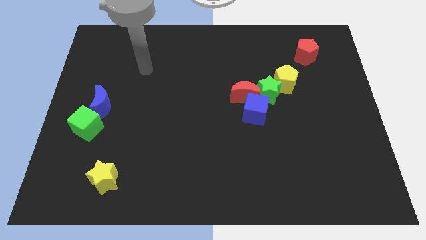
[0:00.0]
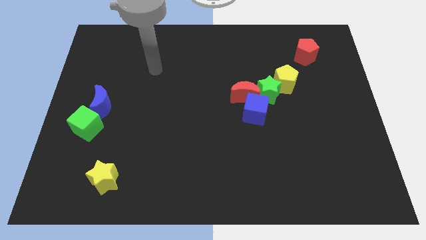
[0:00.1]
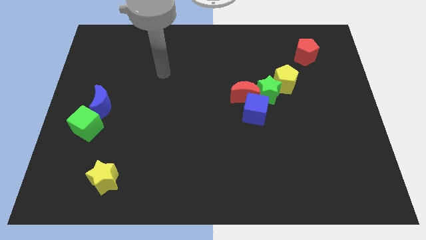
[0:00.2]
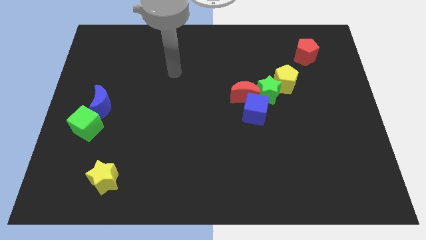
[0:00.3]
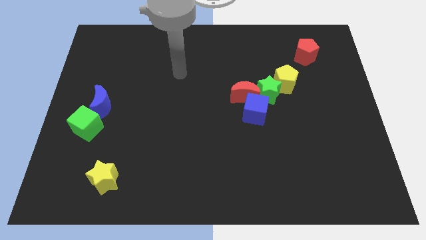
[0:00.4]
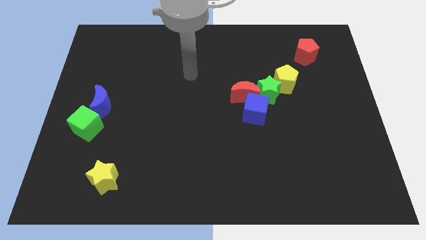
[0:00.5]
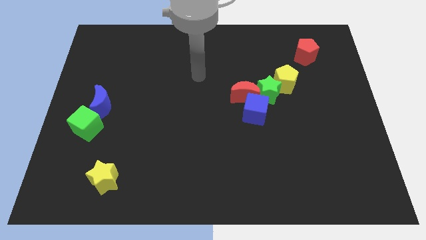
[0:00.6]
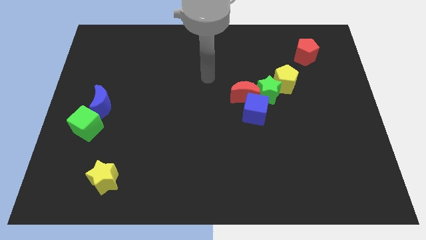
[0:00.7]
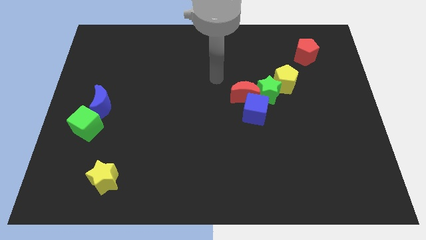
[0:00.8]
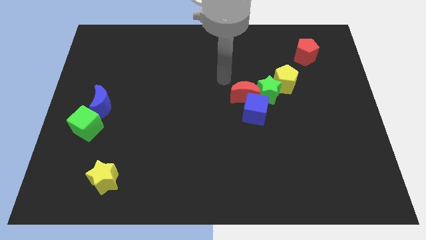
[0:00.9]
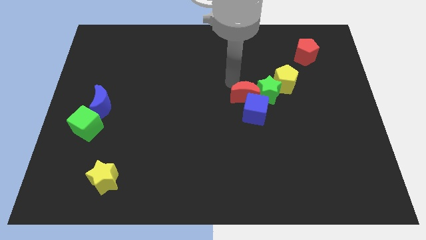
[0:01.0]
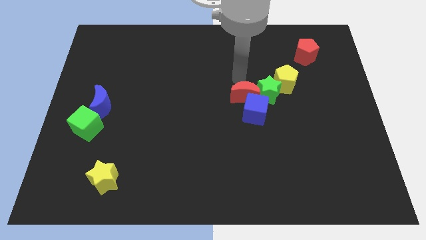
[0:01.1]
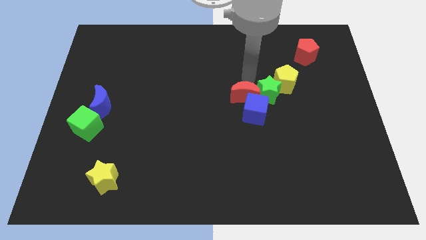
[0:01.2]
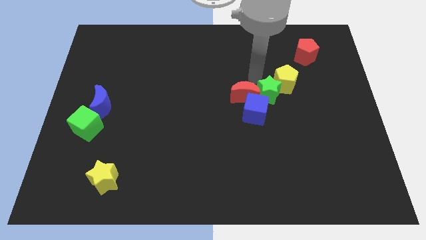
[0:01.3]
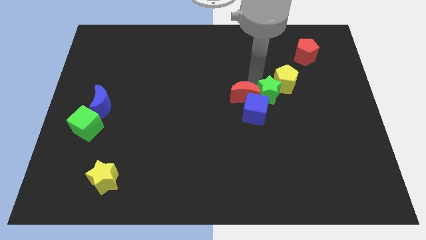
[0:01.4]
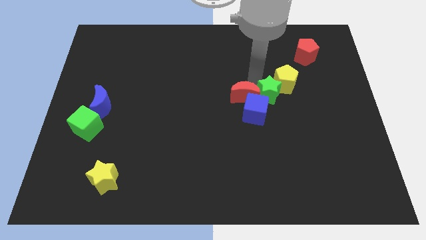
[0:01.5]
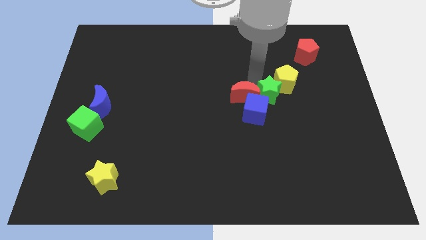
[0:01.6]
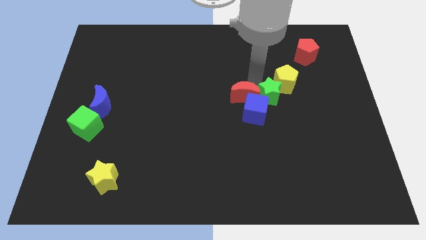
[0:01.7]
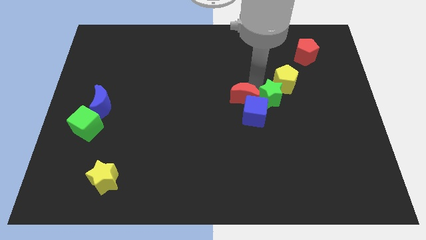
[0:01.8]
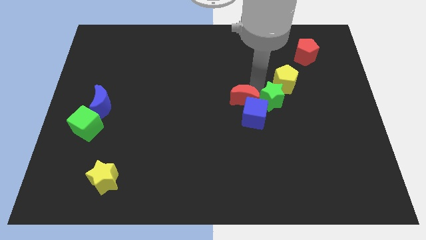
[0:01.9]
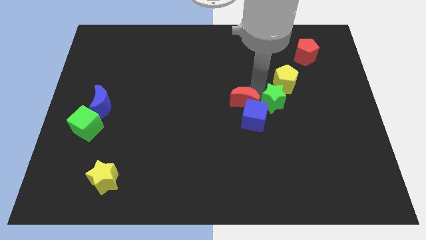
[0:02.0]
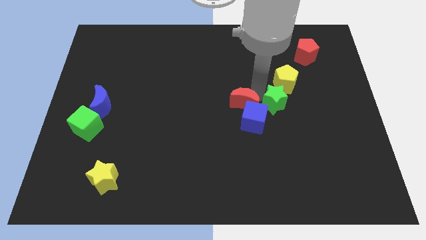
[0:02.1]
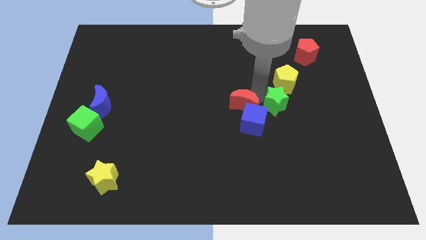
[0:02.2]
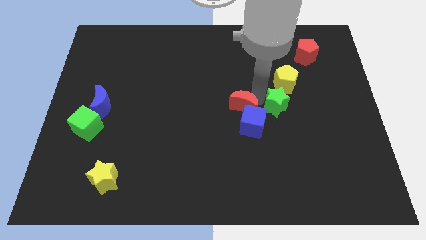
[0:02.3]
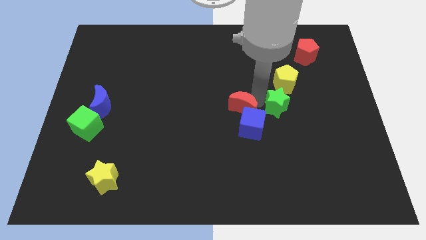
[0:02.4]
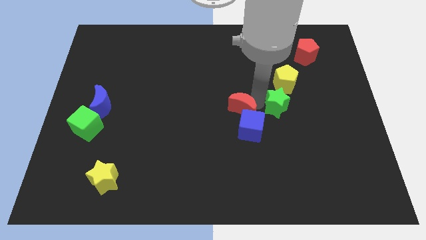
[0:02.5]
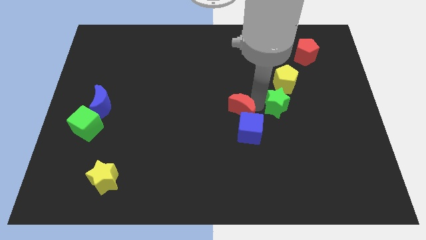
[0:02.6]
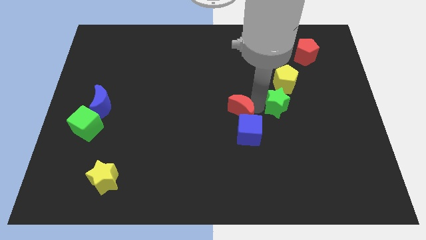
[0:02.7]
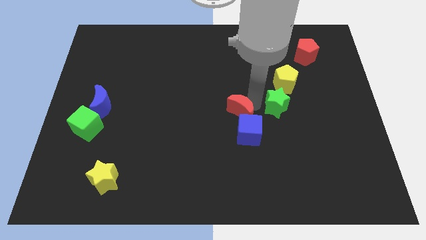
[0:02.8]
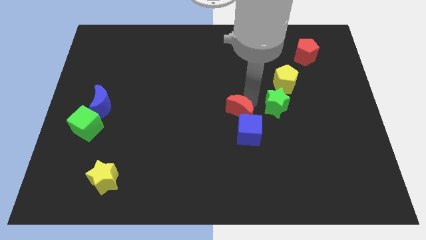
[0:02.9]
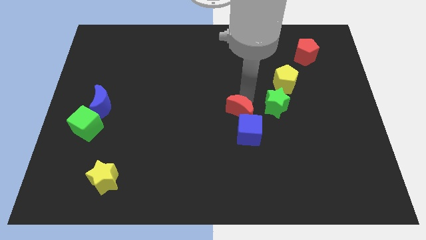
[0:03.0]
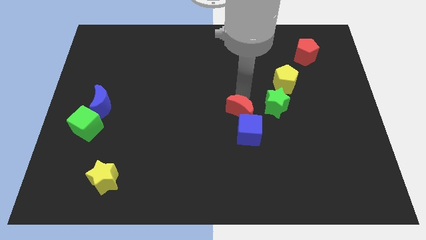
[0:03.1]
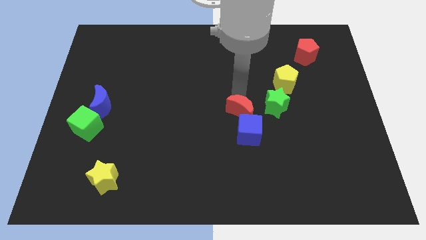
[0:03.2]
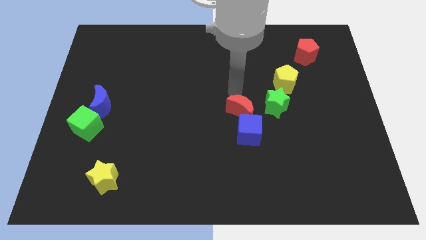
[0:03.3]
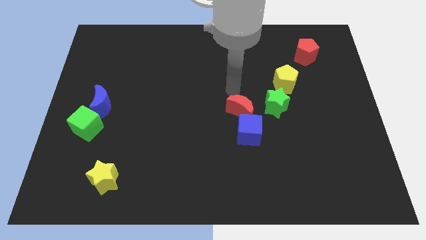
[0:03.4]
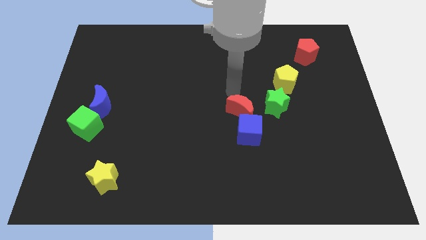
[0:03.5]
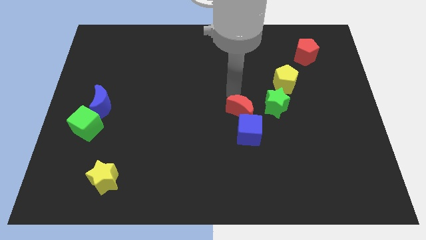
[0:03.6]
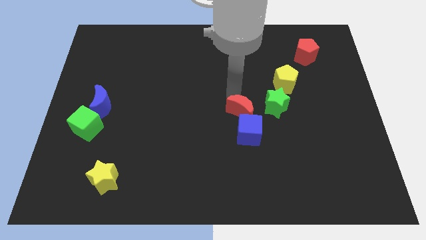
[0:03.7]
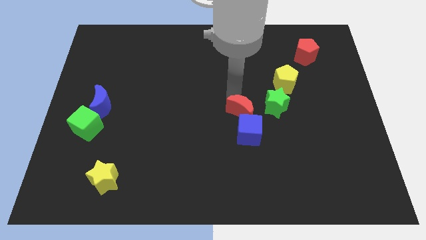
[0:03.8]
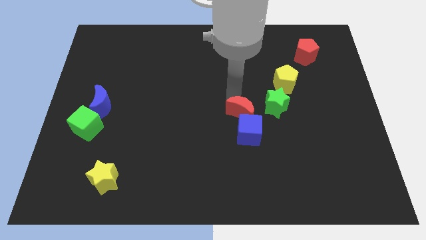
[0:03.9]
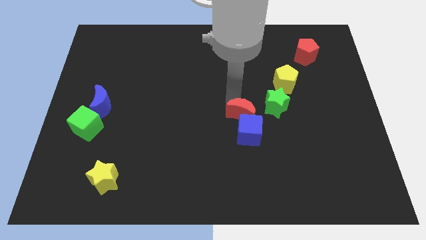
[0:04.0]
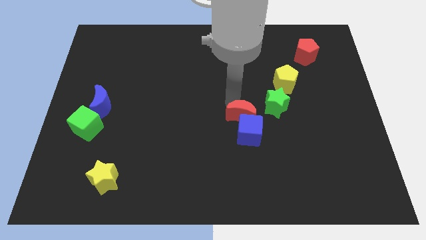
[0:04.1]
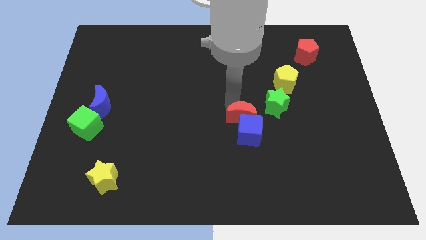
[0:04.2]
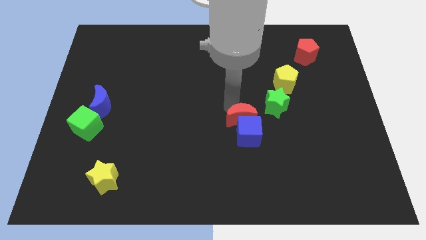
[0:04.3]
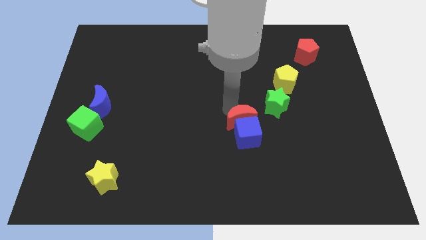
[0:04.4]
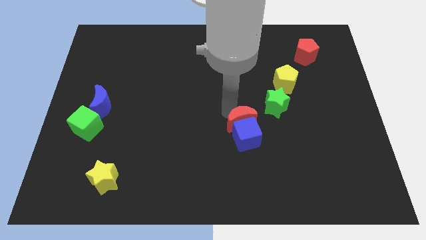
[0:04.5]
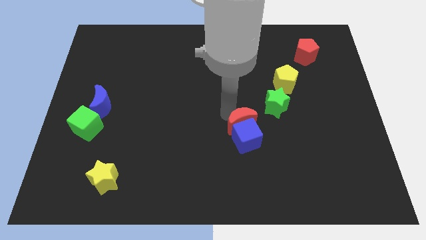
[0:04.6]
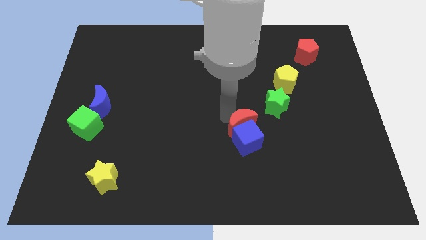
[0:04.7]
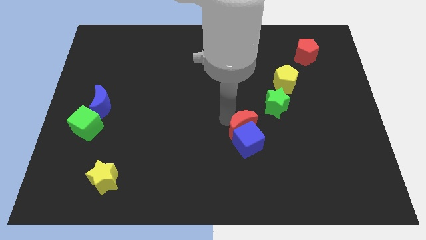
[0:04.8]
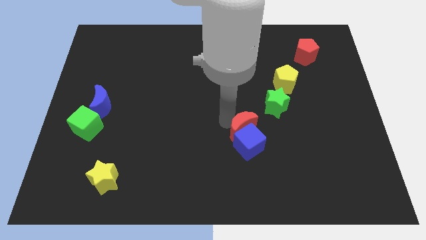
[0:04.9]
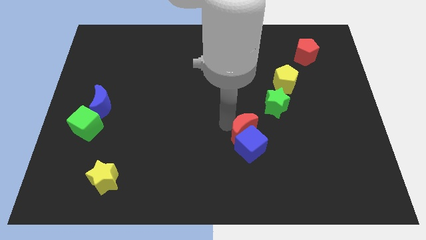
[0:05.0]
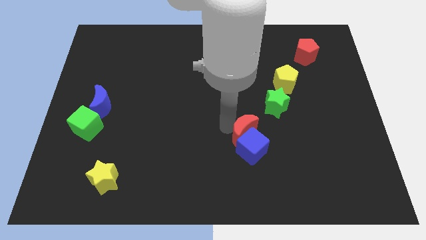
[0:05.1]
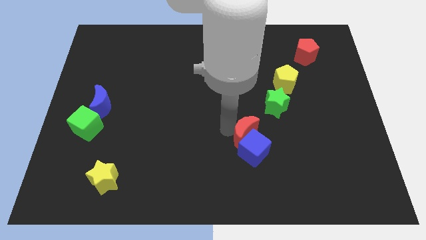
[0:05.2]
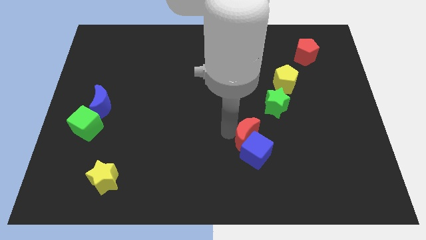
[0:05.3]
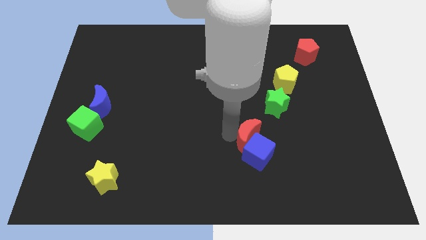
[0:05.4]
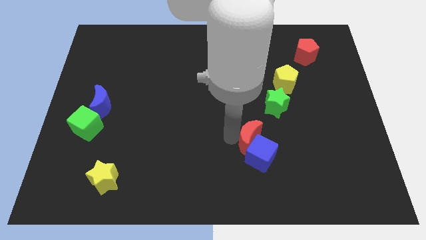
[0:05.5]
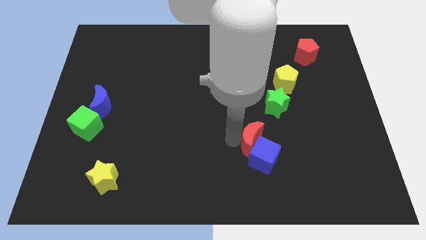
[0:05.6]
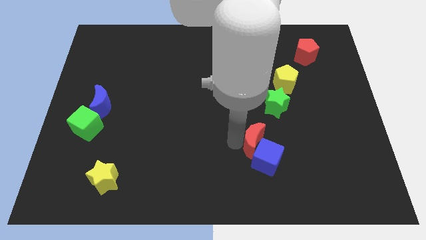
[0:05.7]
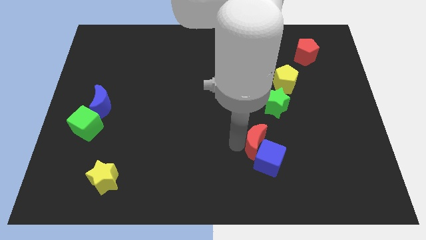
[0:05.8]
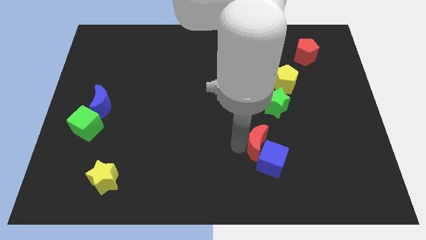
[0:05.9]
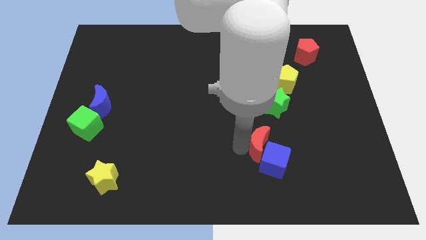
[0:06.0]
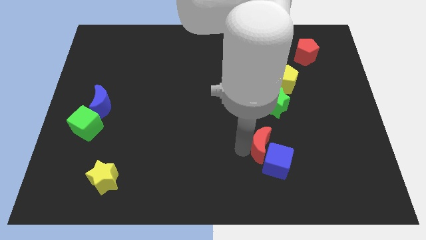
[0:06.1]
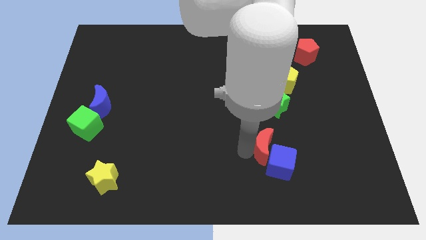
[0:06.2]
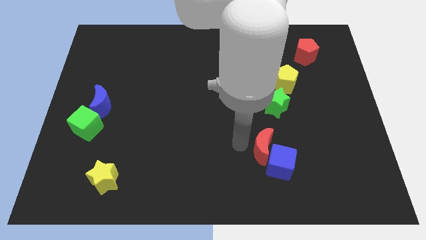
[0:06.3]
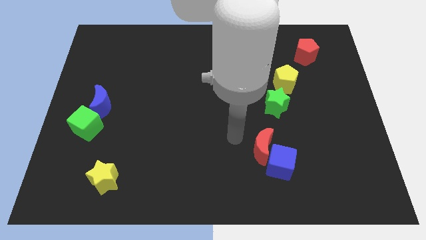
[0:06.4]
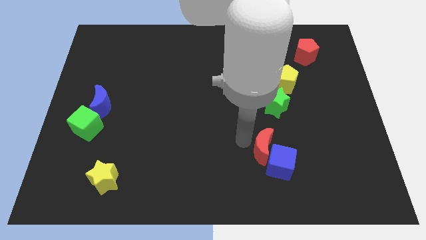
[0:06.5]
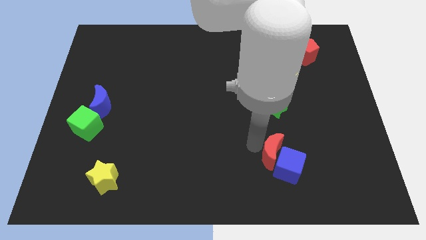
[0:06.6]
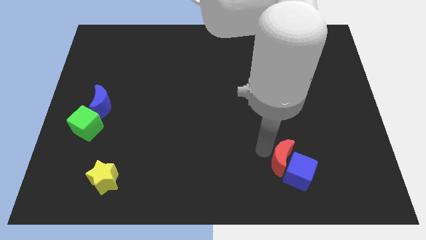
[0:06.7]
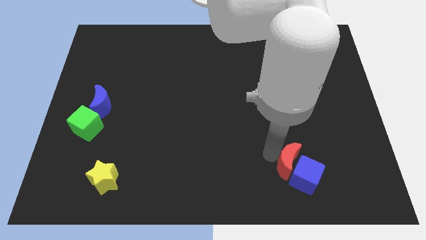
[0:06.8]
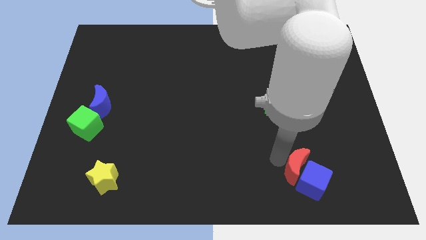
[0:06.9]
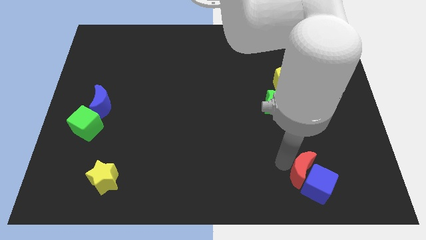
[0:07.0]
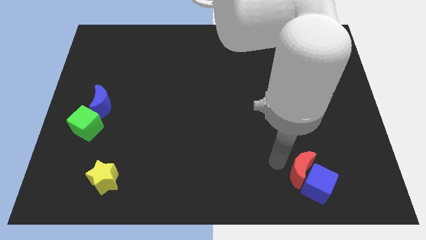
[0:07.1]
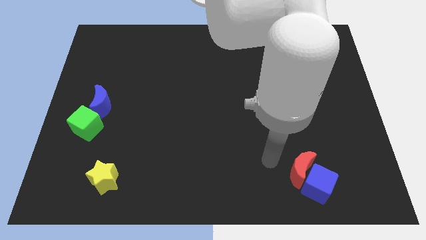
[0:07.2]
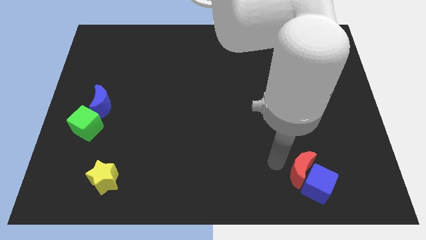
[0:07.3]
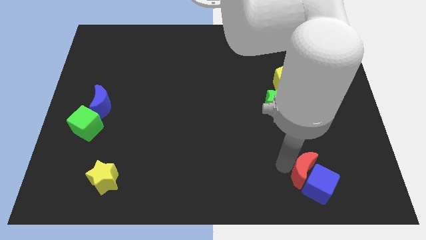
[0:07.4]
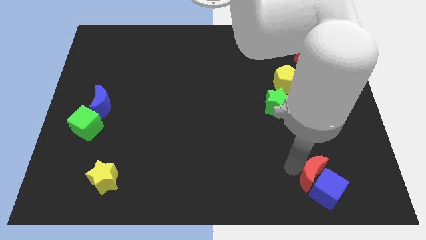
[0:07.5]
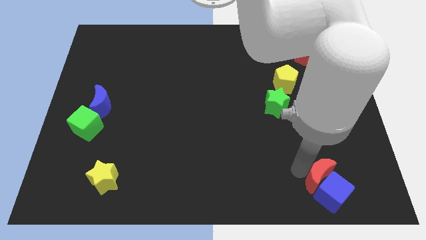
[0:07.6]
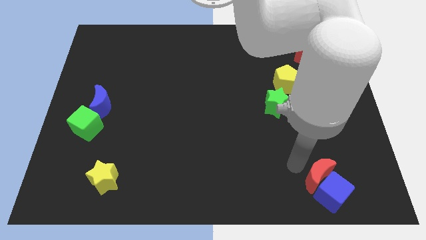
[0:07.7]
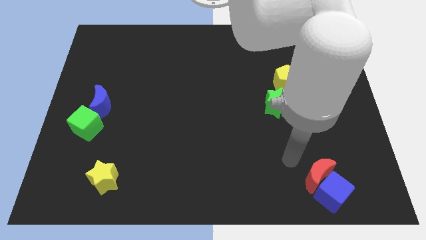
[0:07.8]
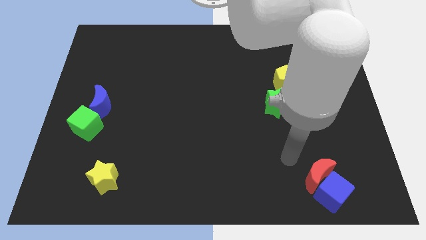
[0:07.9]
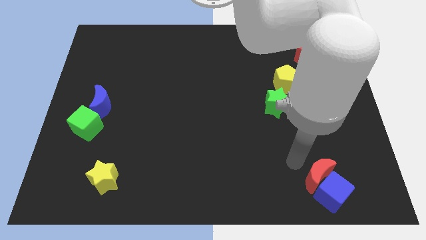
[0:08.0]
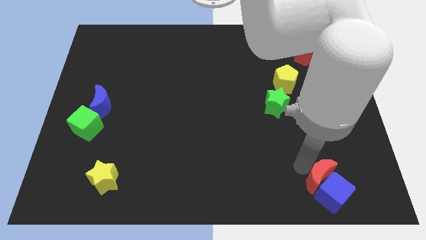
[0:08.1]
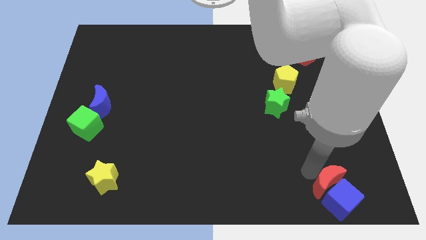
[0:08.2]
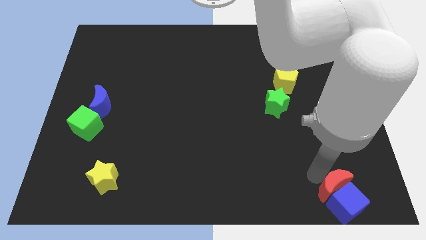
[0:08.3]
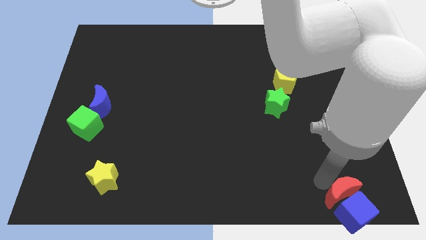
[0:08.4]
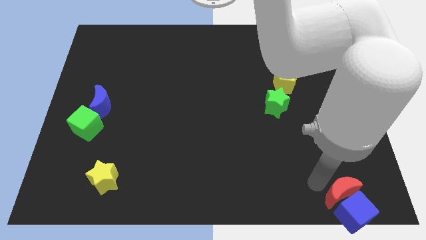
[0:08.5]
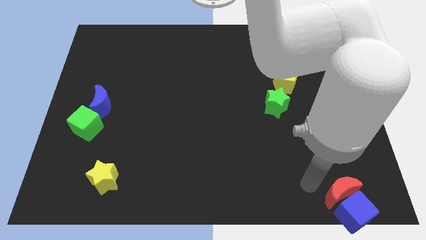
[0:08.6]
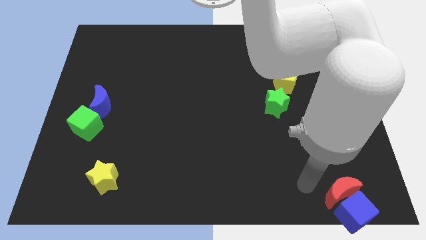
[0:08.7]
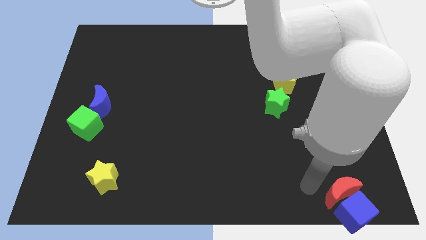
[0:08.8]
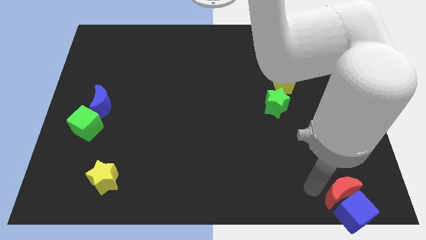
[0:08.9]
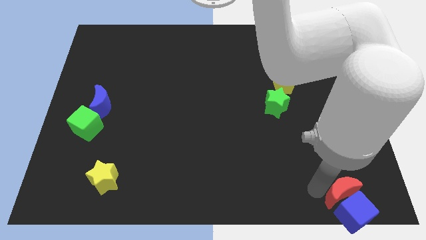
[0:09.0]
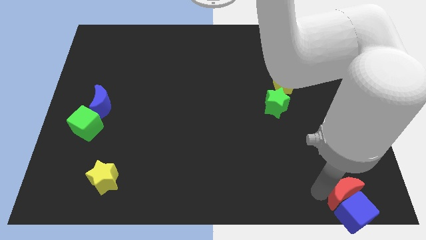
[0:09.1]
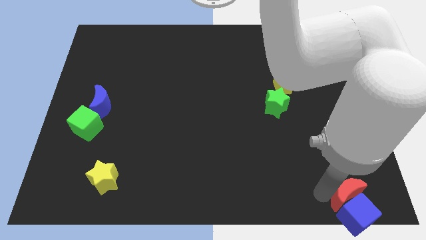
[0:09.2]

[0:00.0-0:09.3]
push the red moon to the lower right corner
